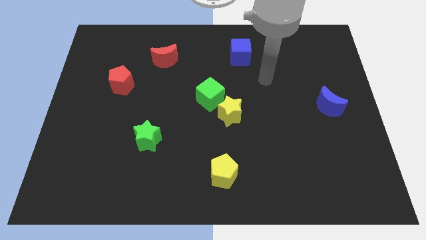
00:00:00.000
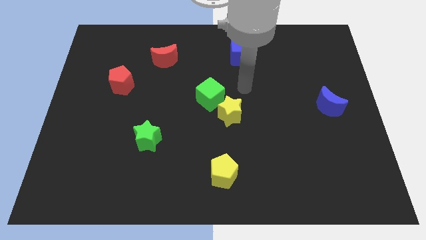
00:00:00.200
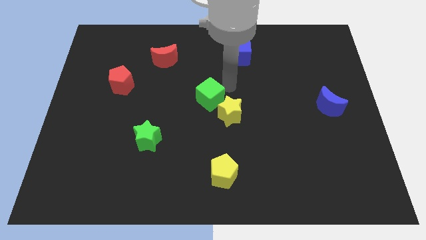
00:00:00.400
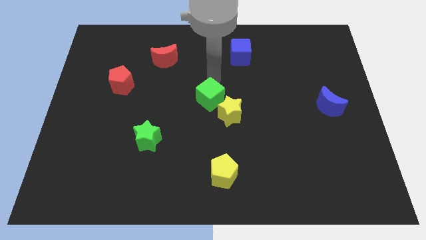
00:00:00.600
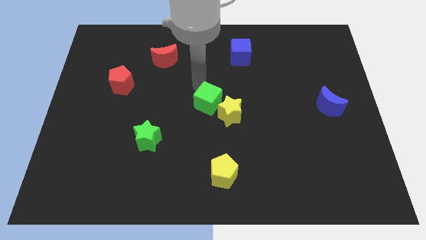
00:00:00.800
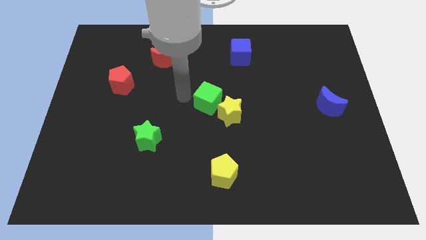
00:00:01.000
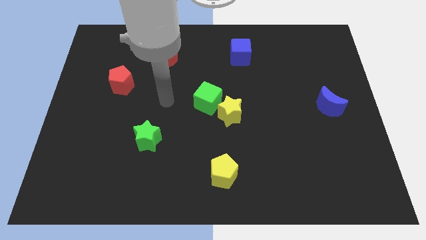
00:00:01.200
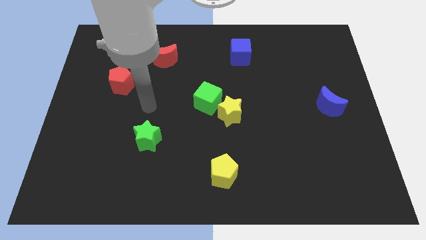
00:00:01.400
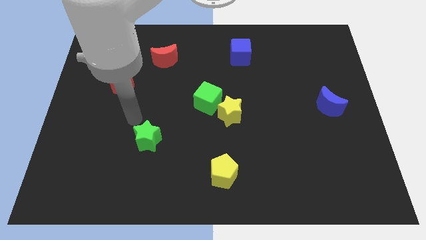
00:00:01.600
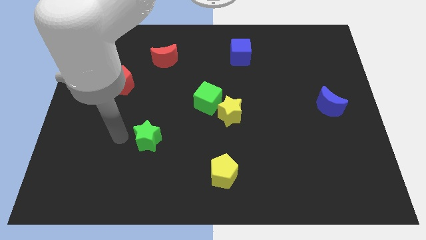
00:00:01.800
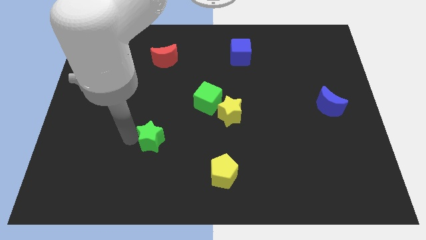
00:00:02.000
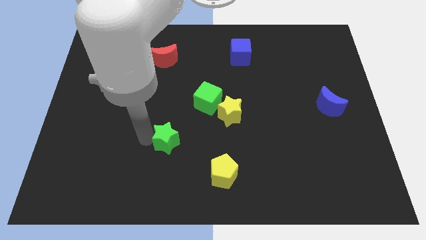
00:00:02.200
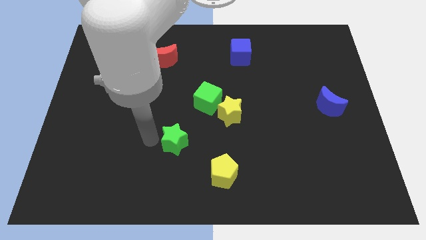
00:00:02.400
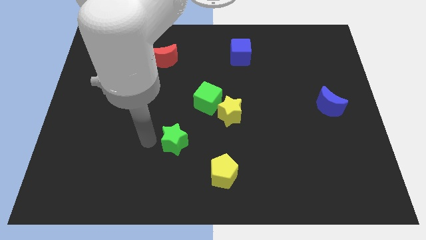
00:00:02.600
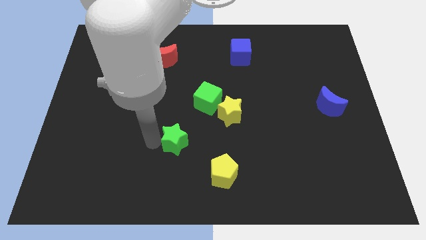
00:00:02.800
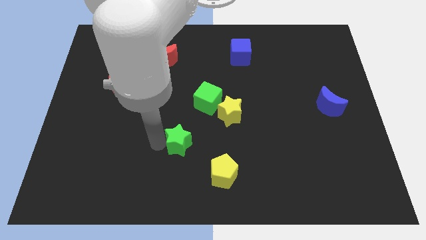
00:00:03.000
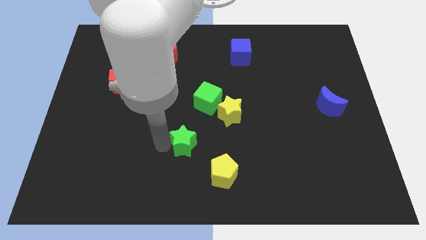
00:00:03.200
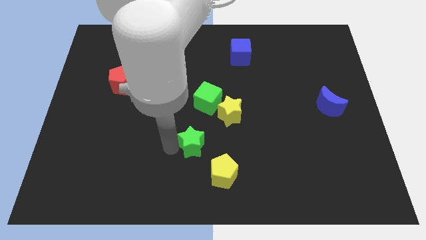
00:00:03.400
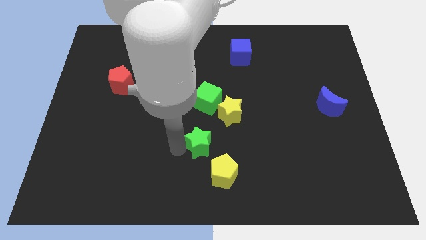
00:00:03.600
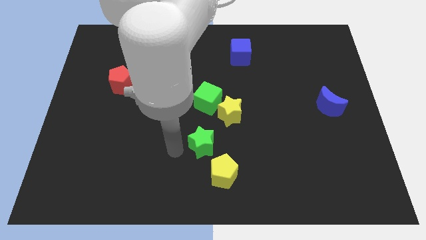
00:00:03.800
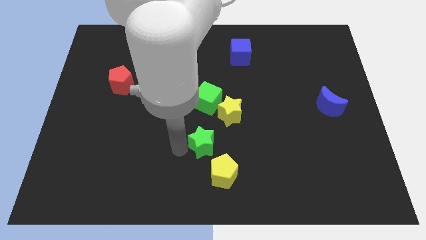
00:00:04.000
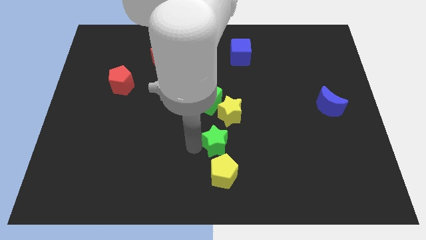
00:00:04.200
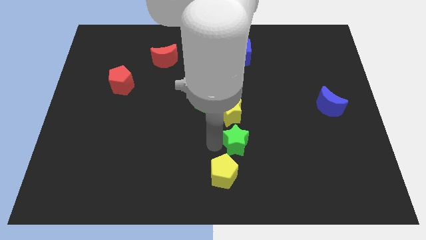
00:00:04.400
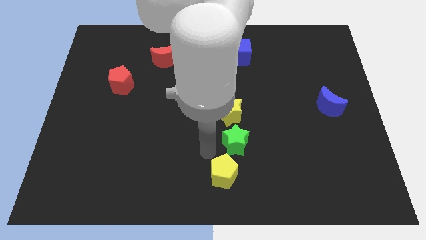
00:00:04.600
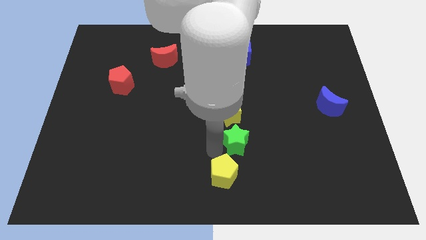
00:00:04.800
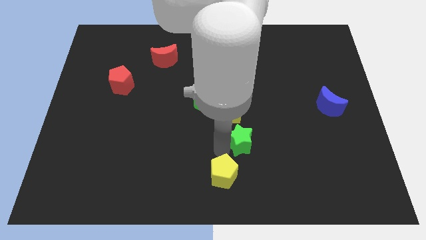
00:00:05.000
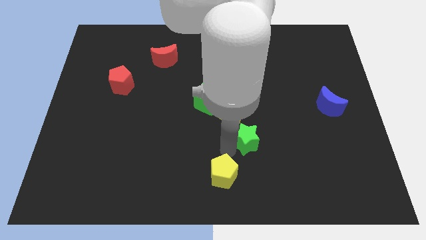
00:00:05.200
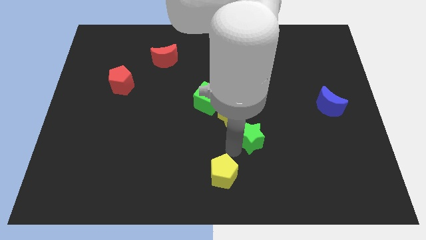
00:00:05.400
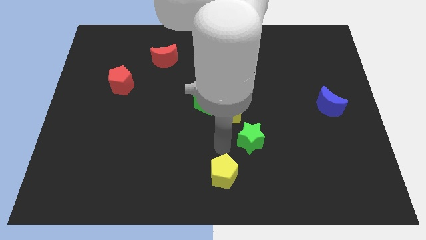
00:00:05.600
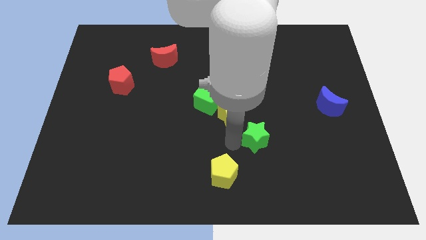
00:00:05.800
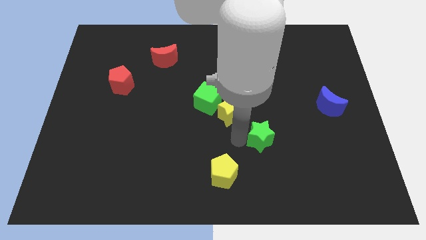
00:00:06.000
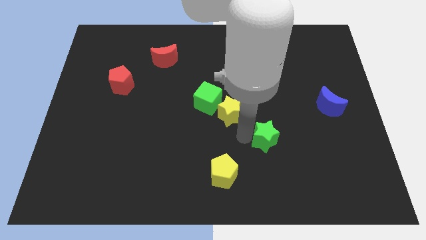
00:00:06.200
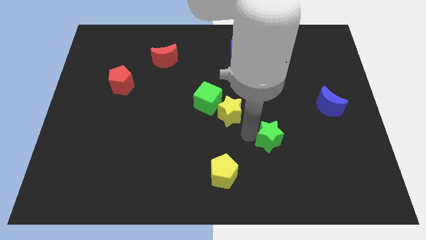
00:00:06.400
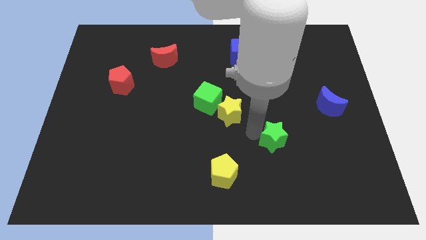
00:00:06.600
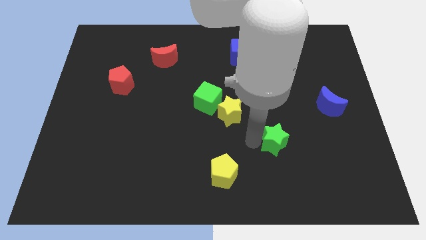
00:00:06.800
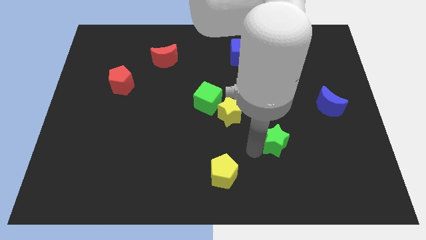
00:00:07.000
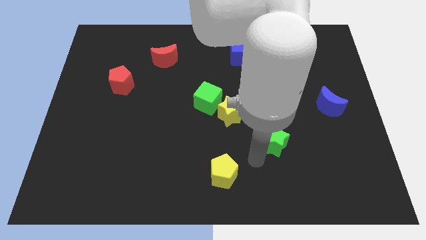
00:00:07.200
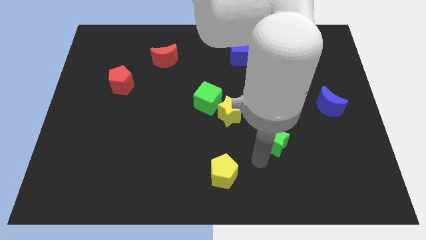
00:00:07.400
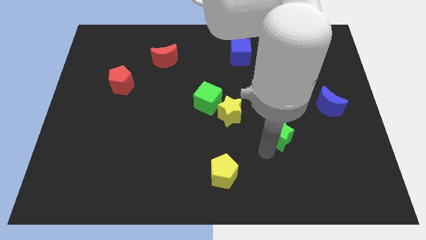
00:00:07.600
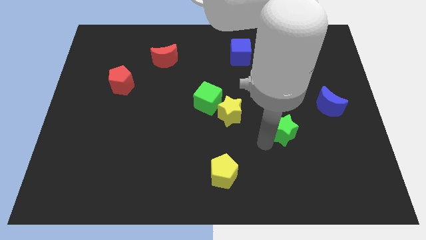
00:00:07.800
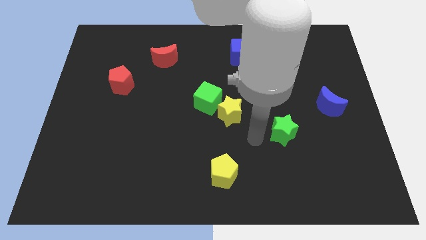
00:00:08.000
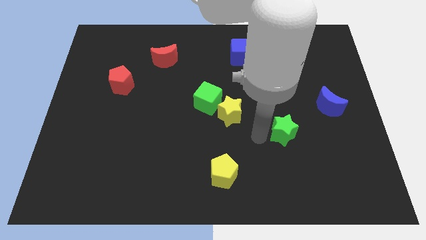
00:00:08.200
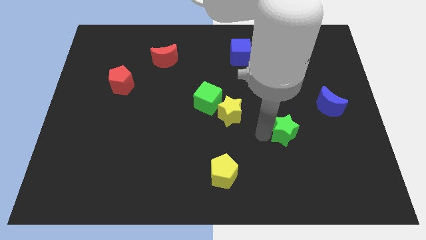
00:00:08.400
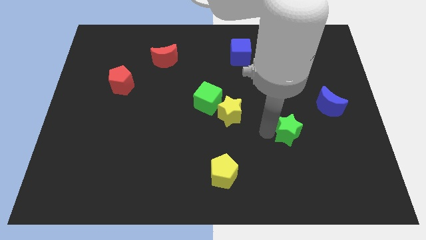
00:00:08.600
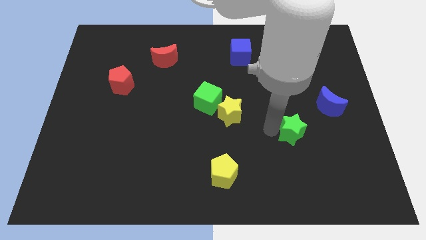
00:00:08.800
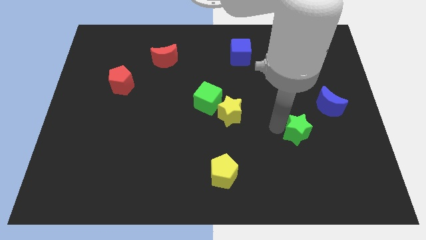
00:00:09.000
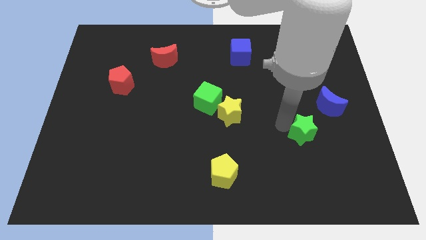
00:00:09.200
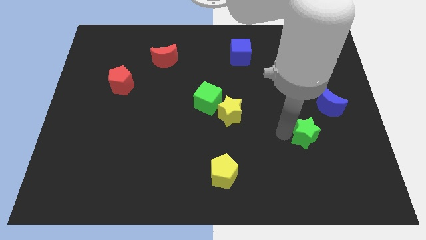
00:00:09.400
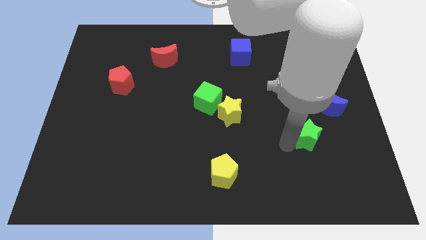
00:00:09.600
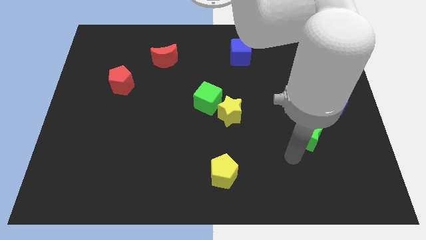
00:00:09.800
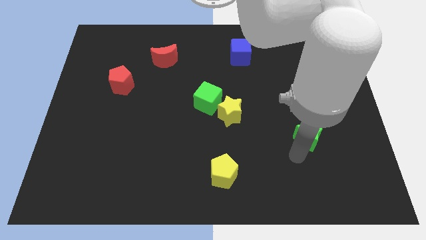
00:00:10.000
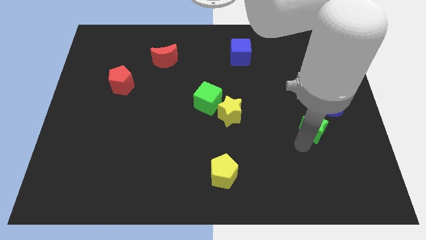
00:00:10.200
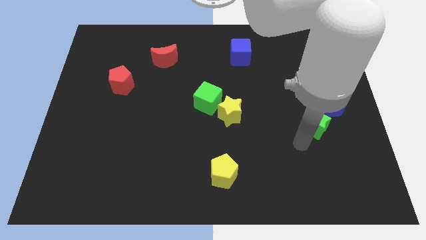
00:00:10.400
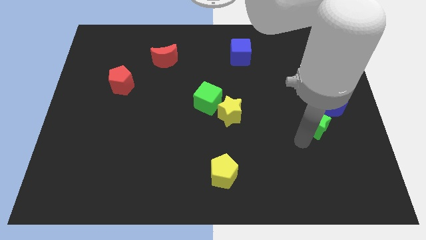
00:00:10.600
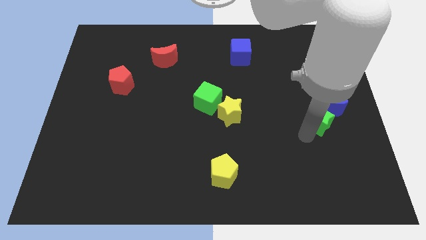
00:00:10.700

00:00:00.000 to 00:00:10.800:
push the green star towards the blue moon

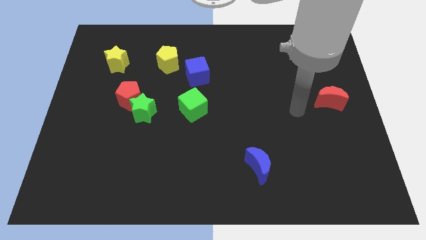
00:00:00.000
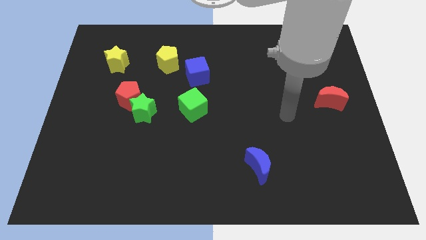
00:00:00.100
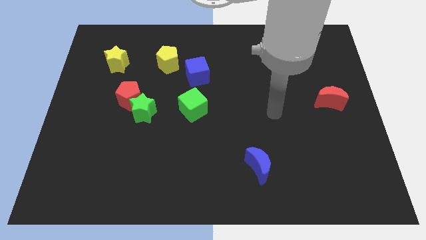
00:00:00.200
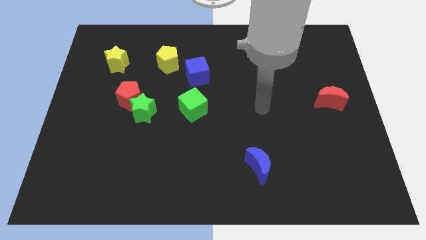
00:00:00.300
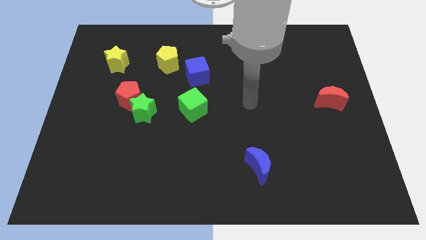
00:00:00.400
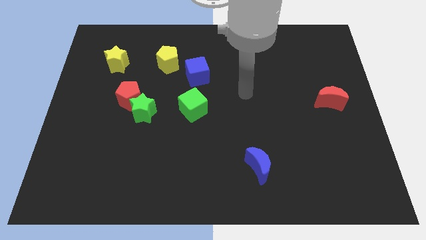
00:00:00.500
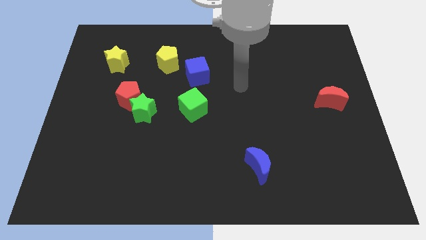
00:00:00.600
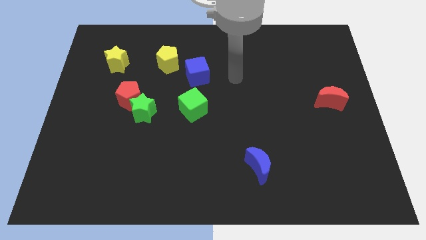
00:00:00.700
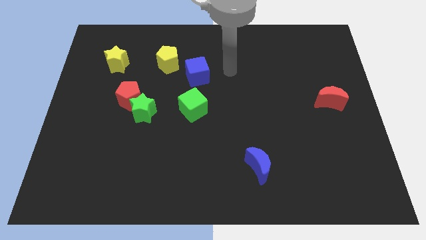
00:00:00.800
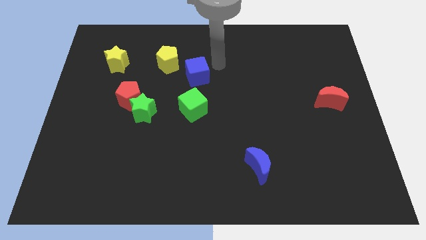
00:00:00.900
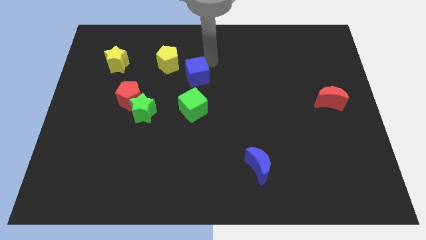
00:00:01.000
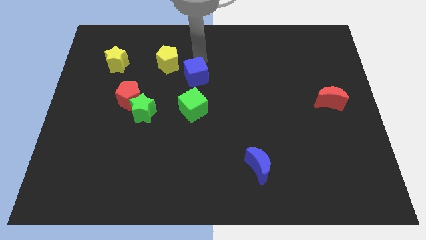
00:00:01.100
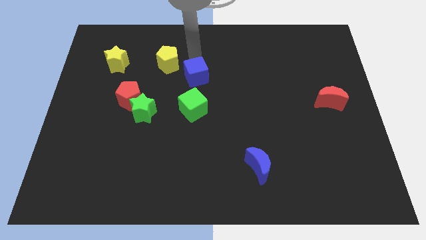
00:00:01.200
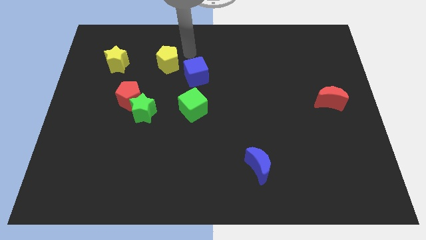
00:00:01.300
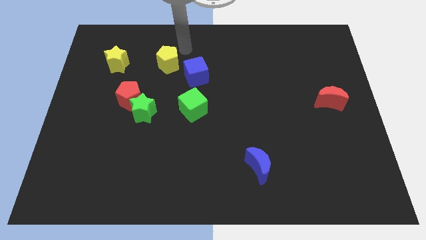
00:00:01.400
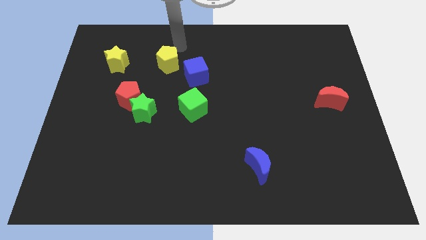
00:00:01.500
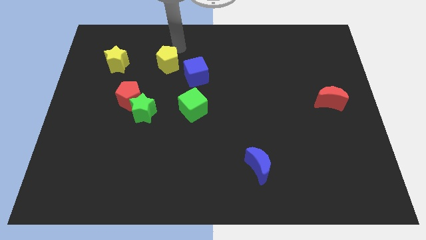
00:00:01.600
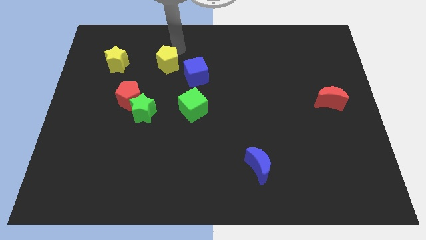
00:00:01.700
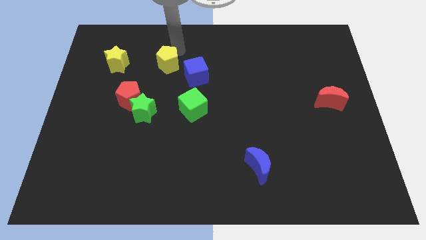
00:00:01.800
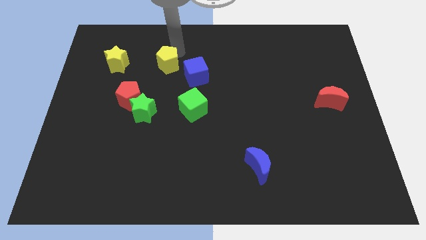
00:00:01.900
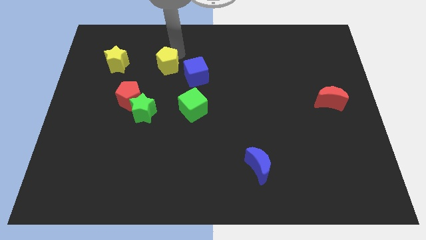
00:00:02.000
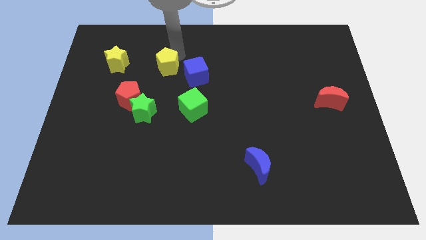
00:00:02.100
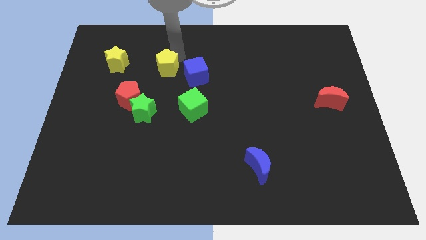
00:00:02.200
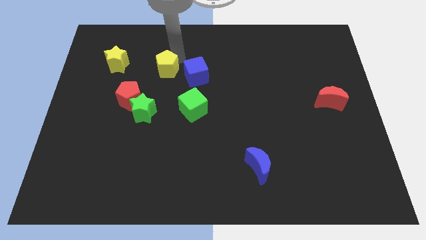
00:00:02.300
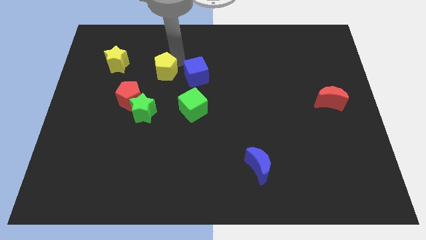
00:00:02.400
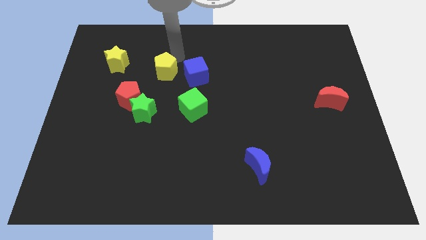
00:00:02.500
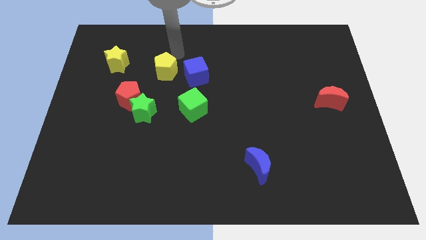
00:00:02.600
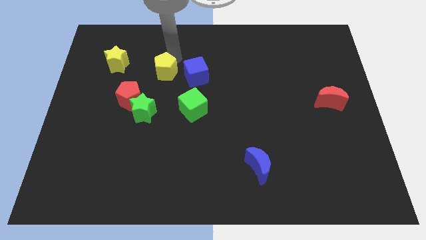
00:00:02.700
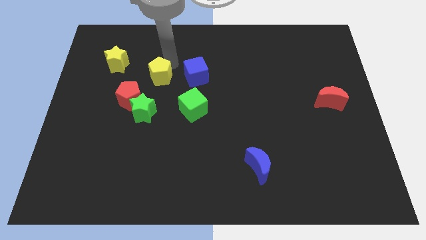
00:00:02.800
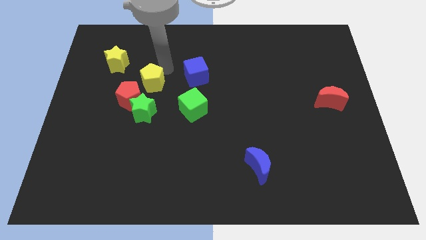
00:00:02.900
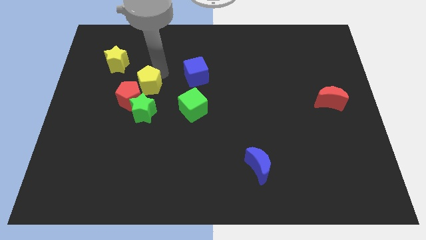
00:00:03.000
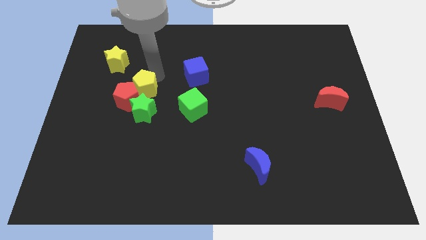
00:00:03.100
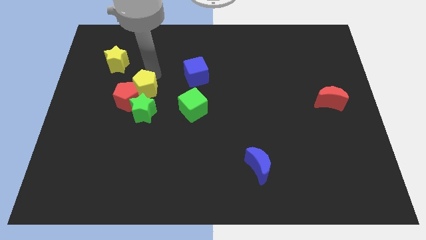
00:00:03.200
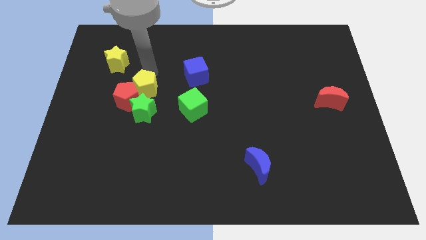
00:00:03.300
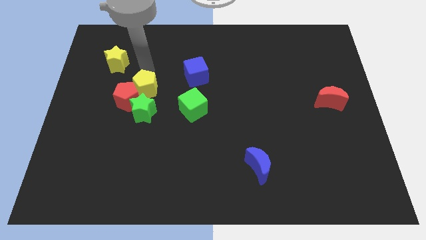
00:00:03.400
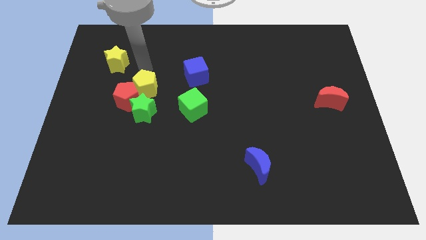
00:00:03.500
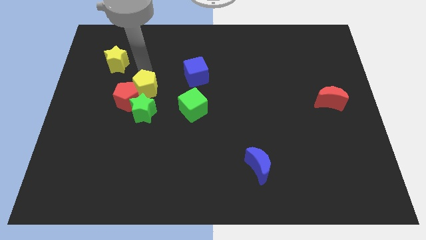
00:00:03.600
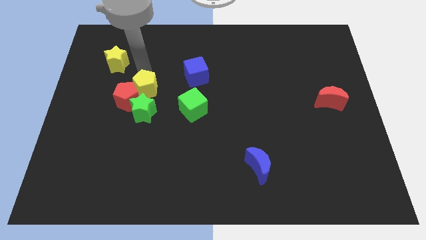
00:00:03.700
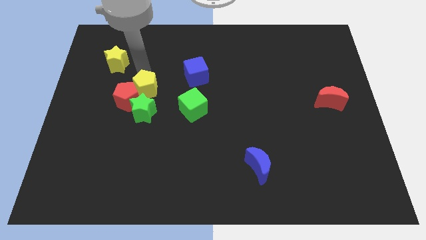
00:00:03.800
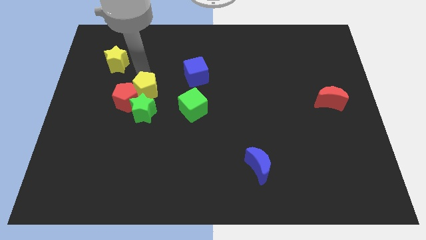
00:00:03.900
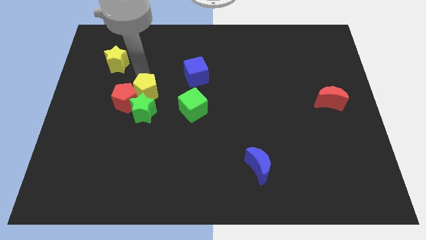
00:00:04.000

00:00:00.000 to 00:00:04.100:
move the yellow pentagon next to the green star
